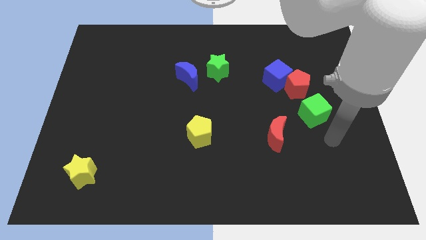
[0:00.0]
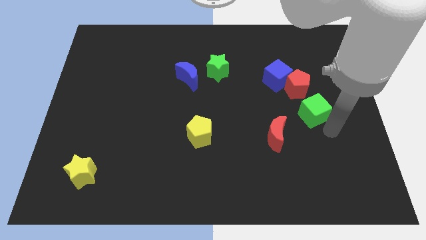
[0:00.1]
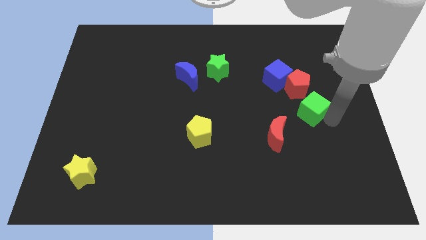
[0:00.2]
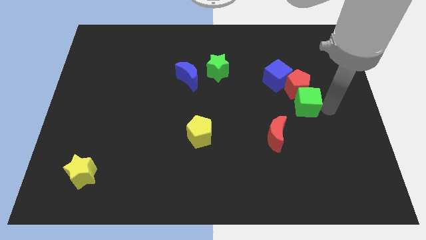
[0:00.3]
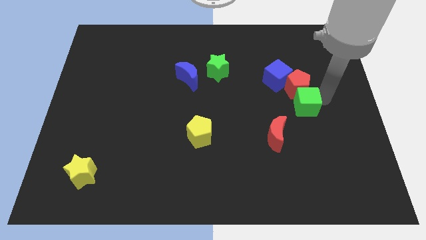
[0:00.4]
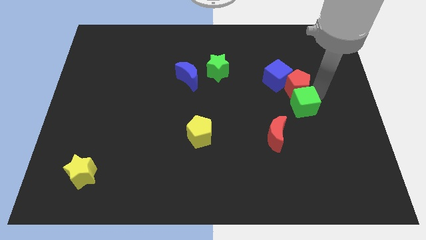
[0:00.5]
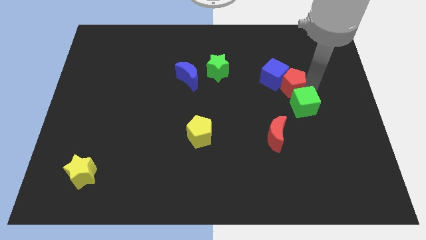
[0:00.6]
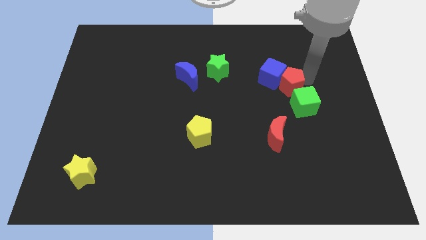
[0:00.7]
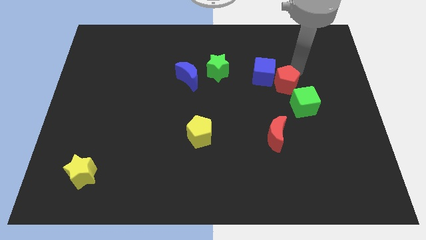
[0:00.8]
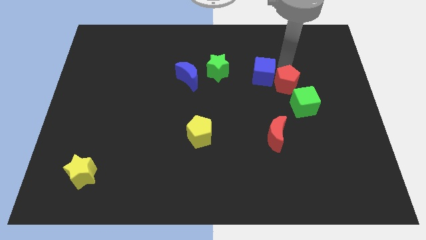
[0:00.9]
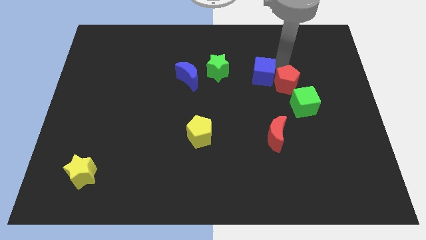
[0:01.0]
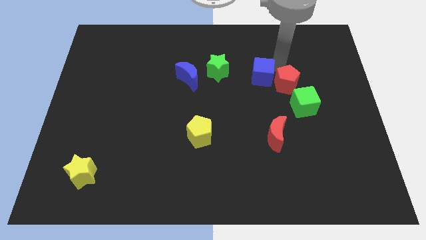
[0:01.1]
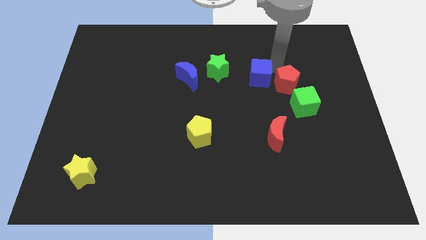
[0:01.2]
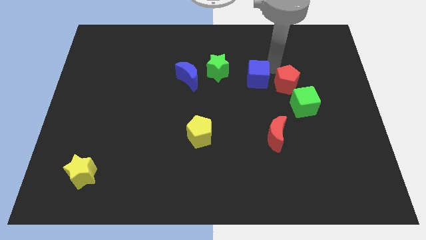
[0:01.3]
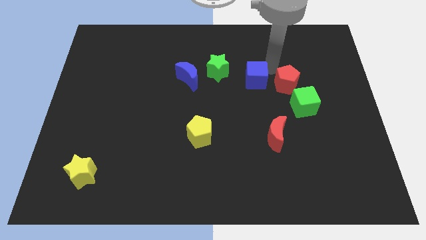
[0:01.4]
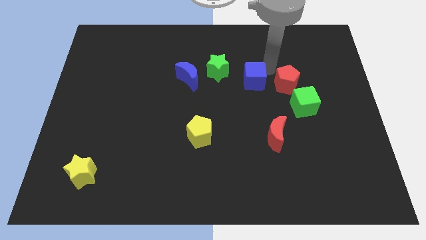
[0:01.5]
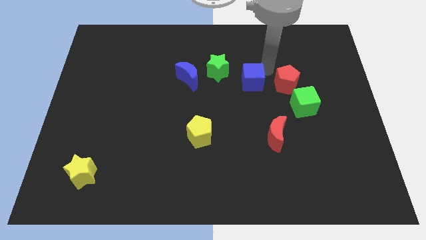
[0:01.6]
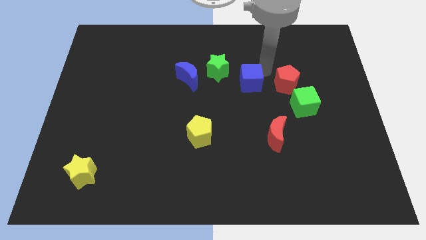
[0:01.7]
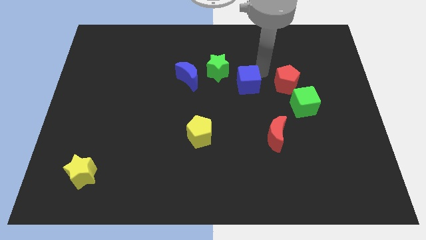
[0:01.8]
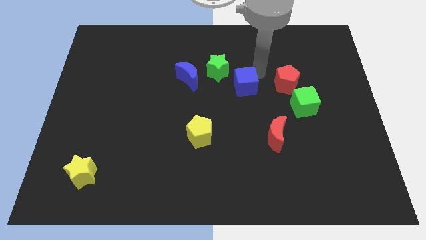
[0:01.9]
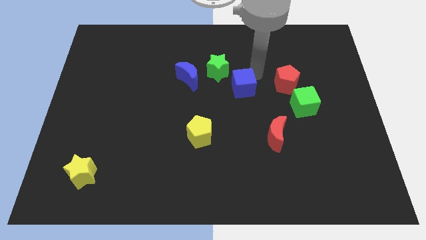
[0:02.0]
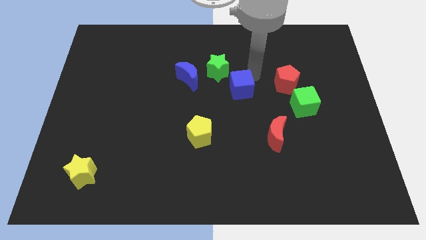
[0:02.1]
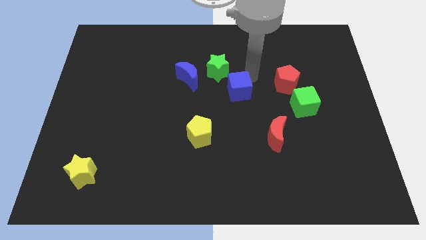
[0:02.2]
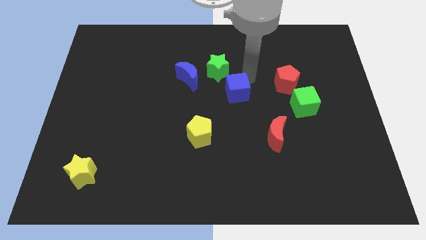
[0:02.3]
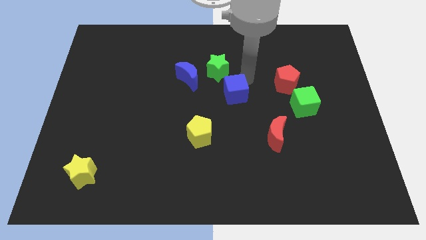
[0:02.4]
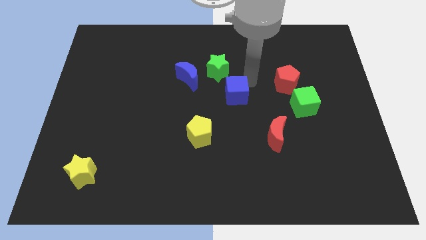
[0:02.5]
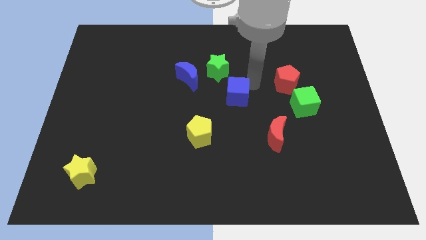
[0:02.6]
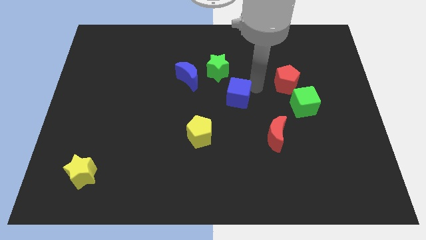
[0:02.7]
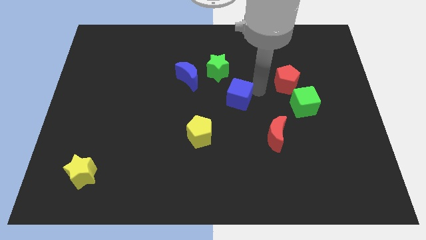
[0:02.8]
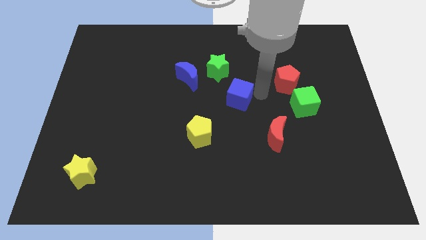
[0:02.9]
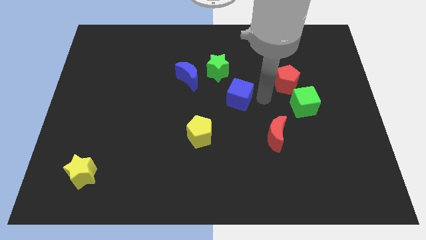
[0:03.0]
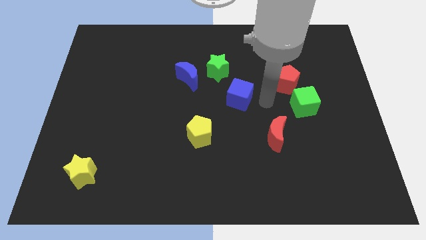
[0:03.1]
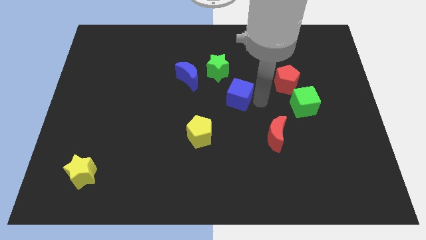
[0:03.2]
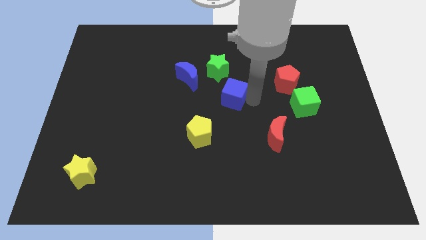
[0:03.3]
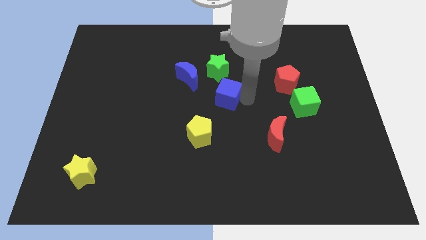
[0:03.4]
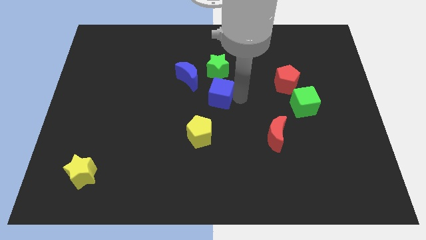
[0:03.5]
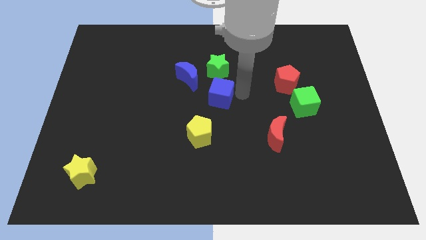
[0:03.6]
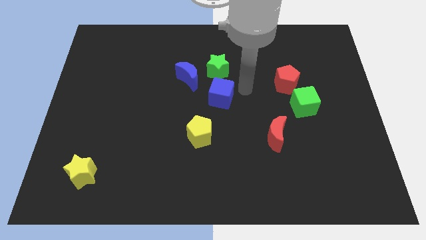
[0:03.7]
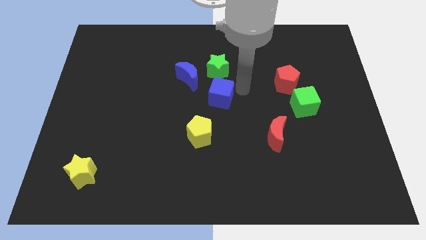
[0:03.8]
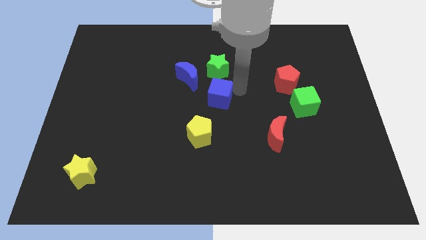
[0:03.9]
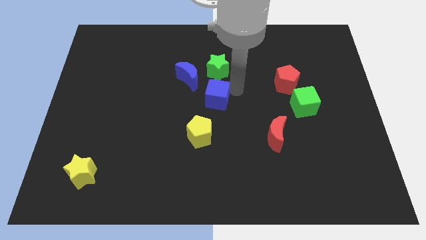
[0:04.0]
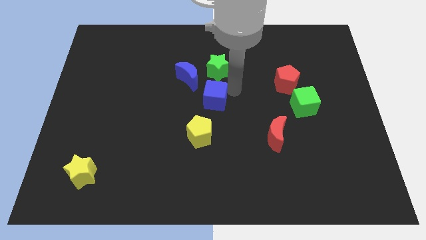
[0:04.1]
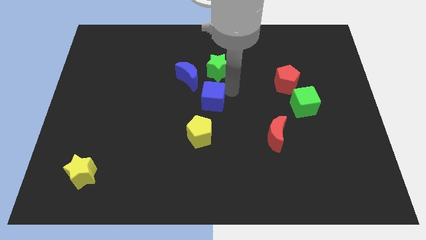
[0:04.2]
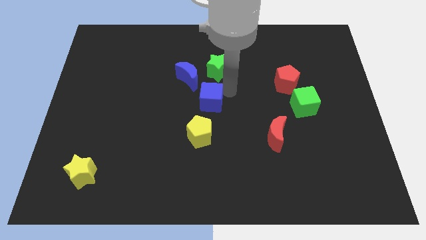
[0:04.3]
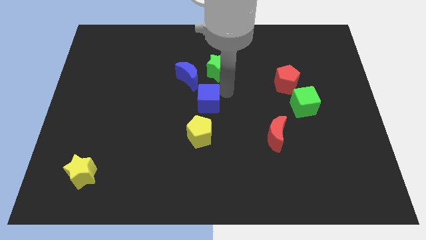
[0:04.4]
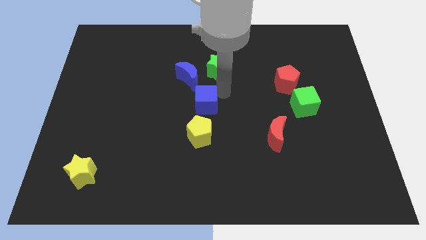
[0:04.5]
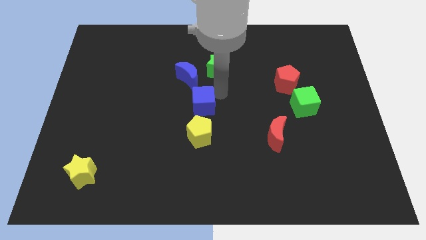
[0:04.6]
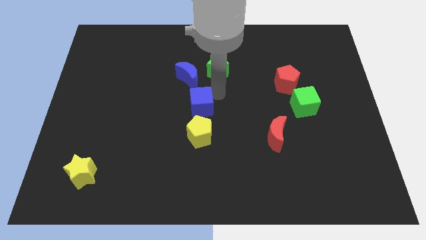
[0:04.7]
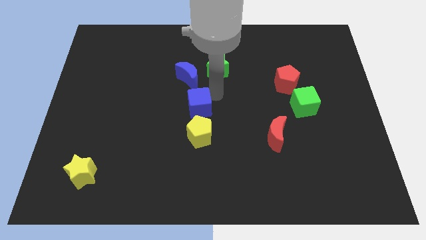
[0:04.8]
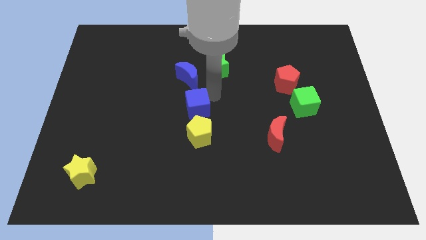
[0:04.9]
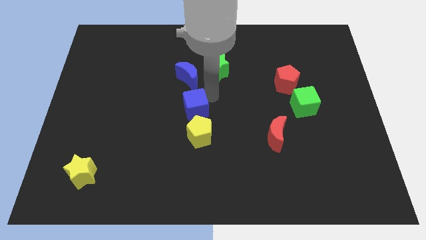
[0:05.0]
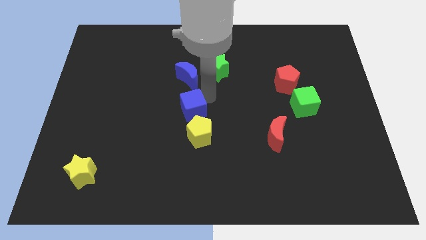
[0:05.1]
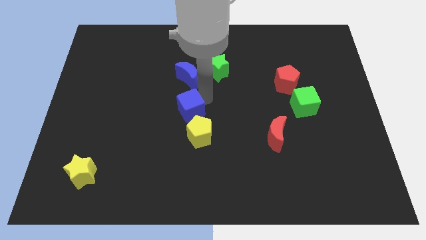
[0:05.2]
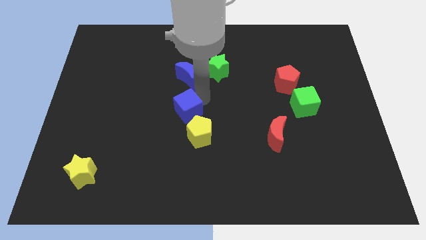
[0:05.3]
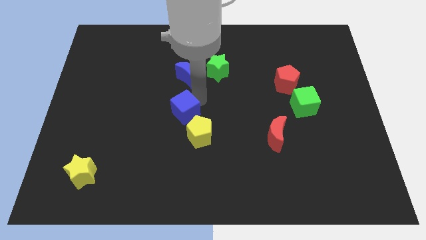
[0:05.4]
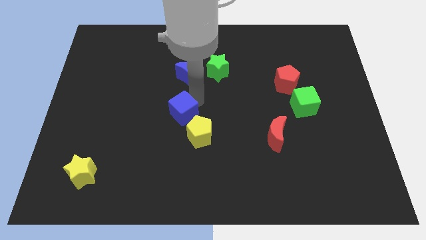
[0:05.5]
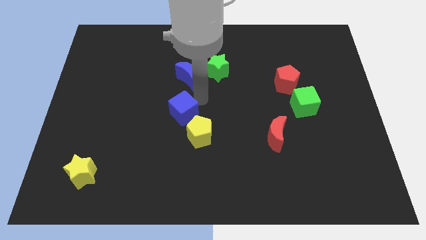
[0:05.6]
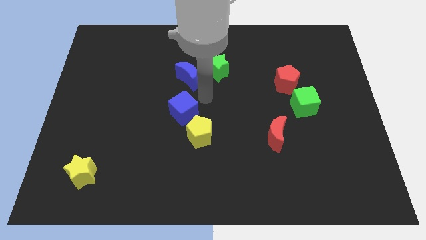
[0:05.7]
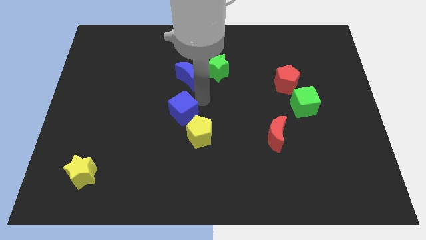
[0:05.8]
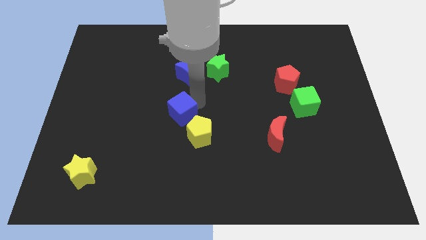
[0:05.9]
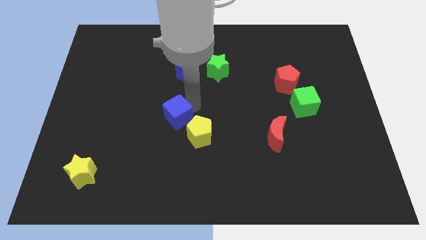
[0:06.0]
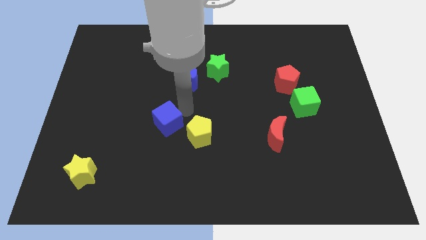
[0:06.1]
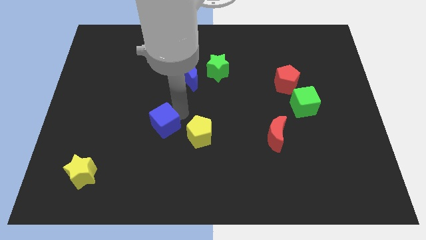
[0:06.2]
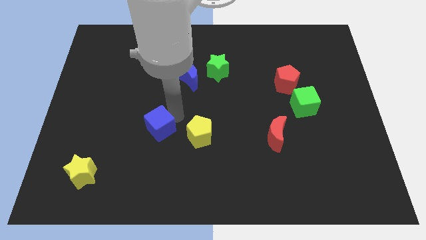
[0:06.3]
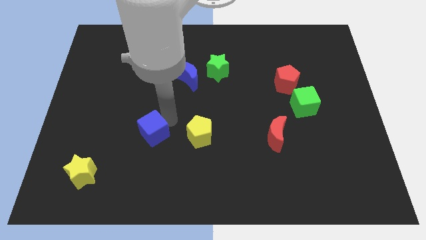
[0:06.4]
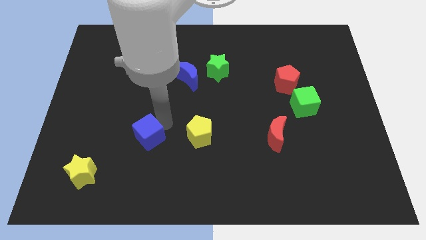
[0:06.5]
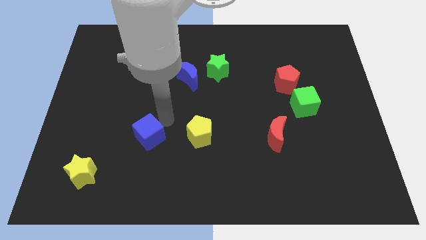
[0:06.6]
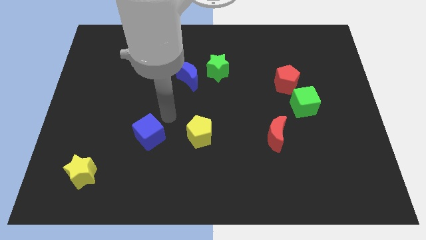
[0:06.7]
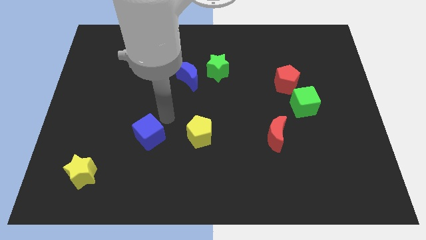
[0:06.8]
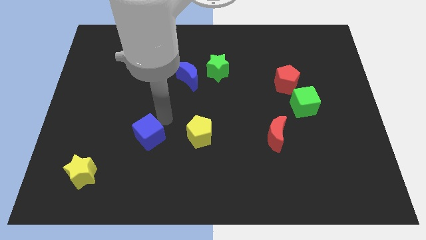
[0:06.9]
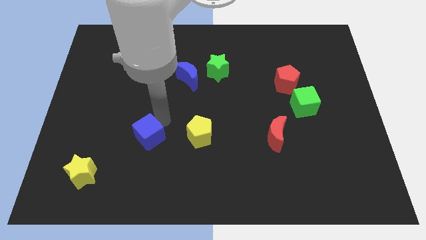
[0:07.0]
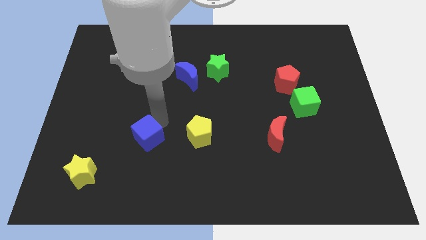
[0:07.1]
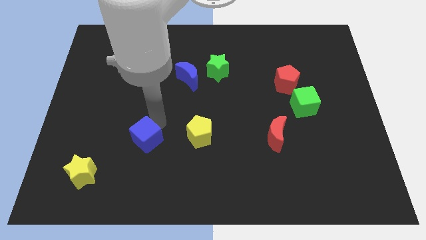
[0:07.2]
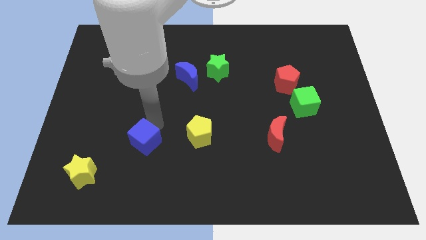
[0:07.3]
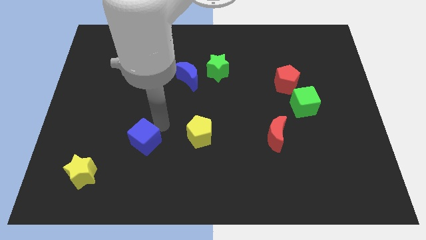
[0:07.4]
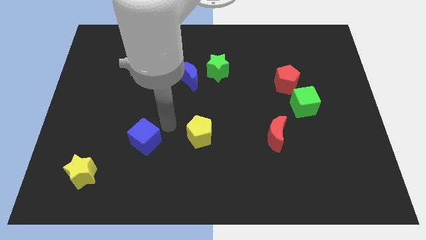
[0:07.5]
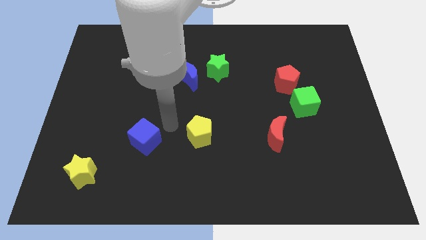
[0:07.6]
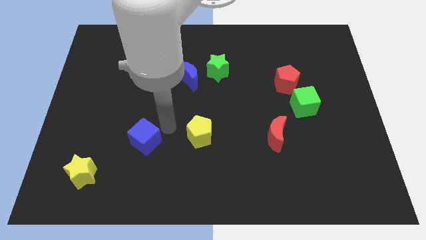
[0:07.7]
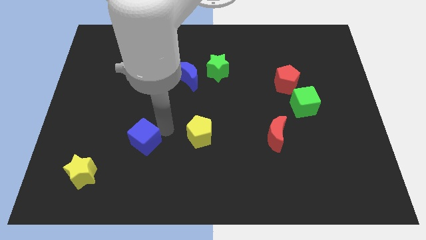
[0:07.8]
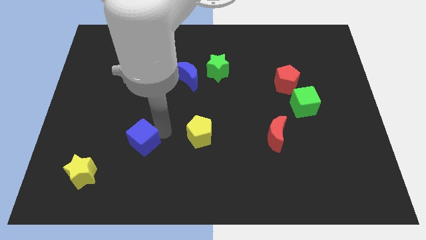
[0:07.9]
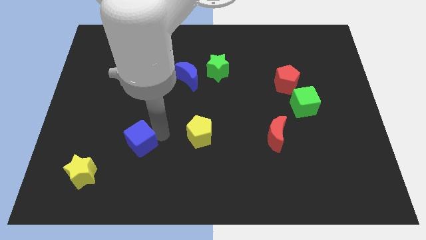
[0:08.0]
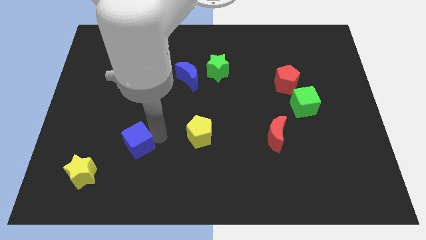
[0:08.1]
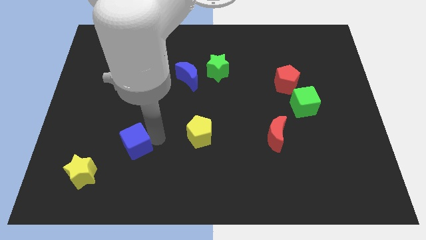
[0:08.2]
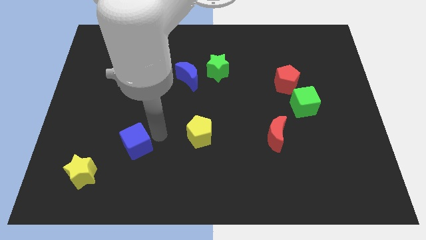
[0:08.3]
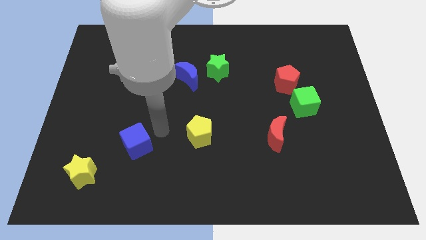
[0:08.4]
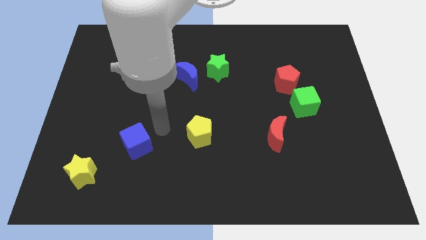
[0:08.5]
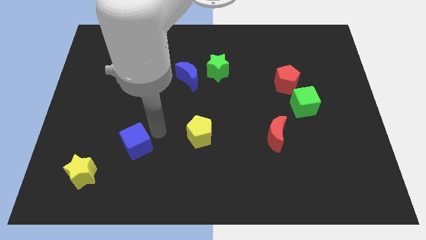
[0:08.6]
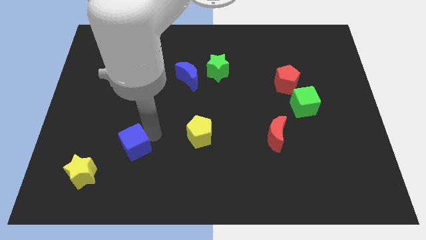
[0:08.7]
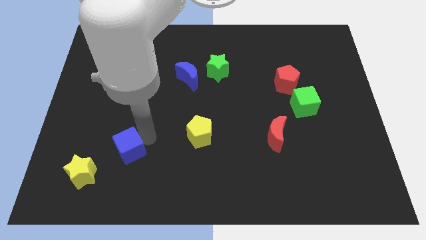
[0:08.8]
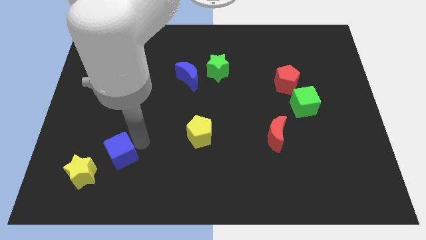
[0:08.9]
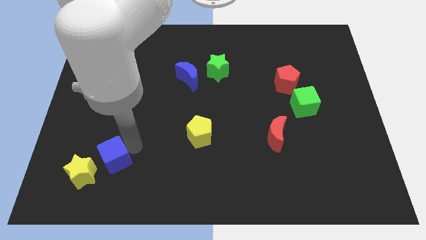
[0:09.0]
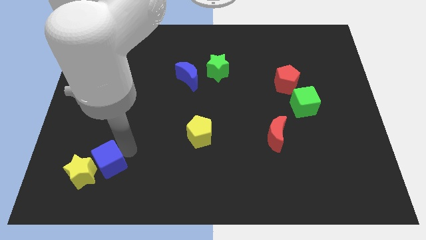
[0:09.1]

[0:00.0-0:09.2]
put the blue cube close to the yellow star
